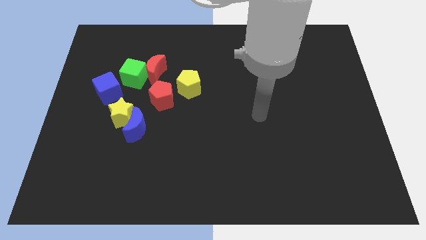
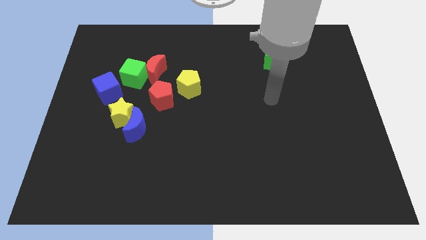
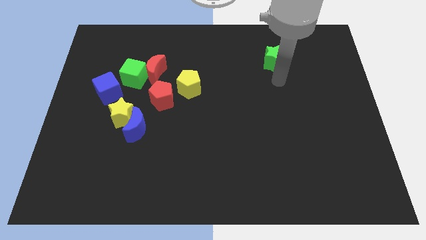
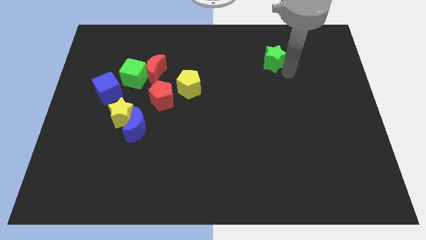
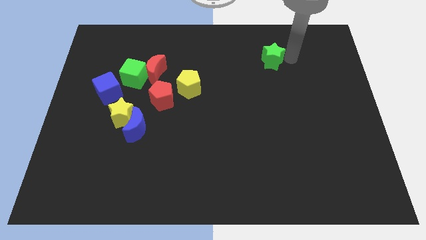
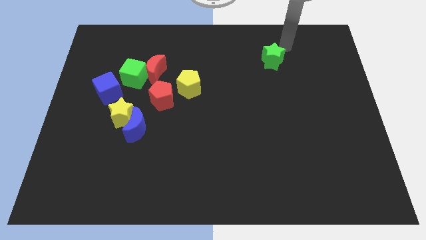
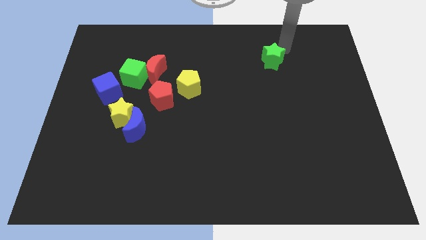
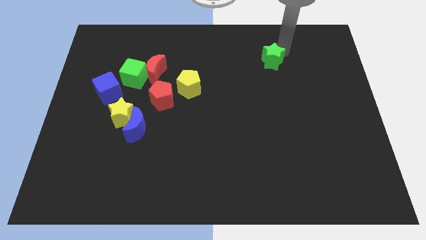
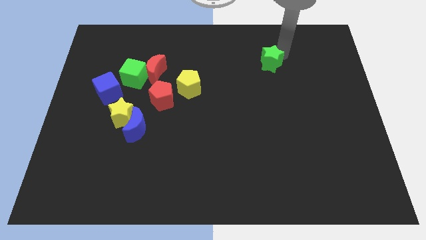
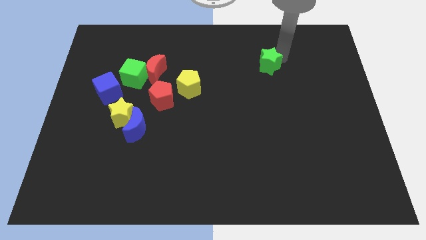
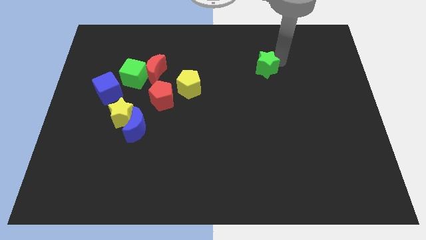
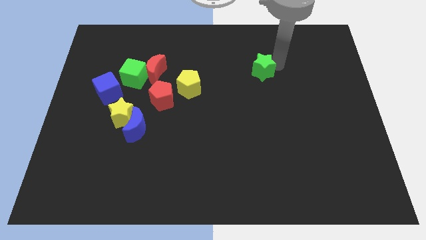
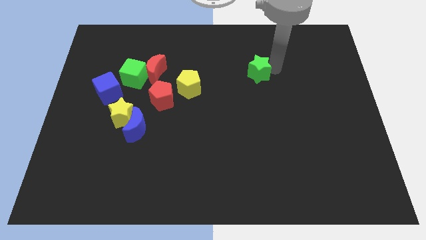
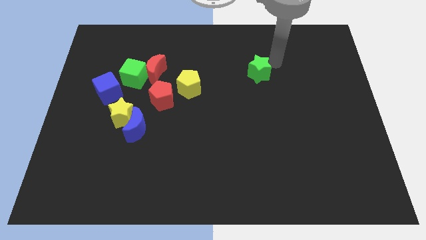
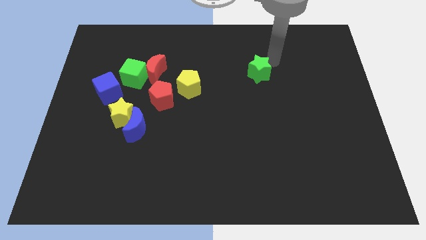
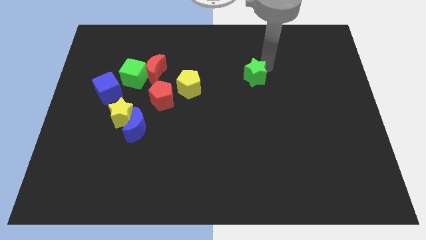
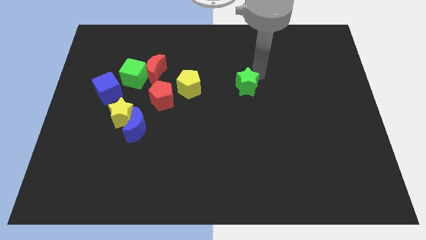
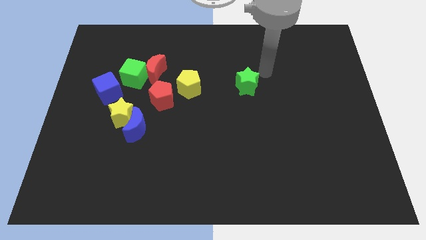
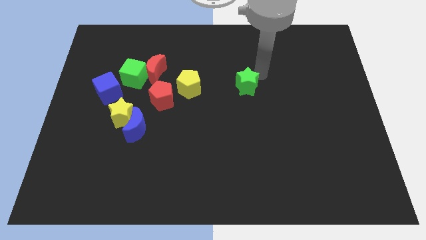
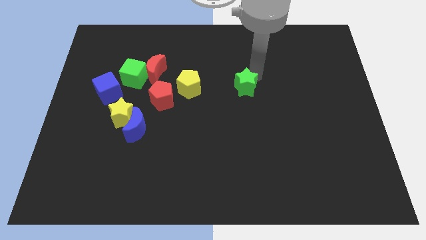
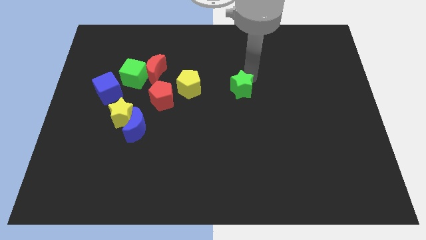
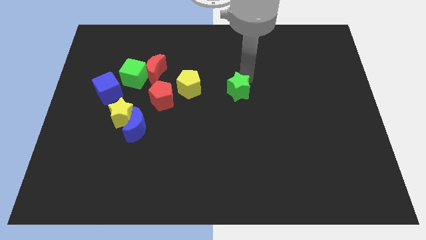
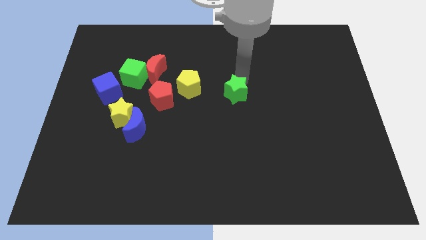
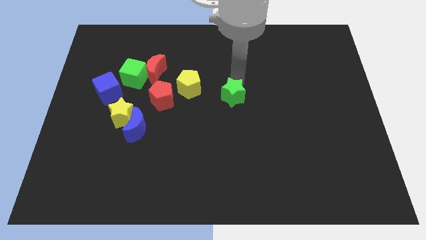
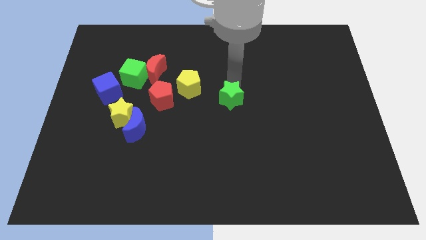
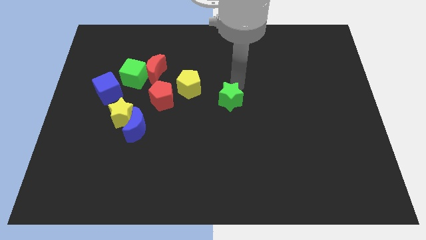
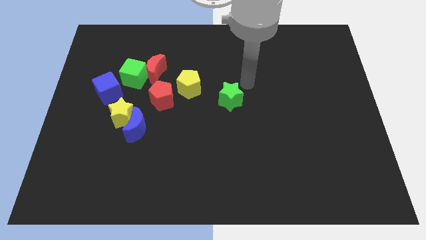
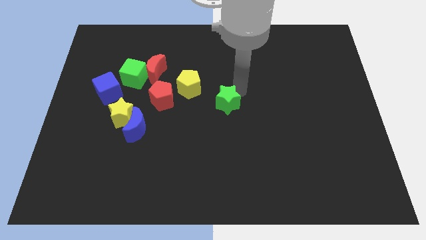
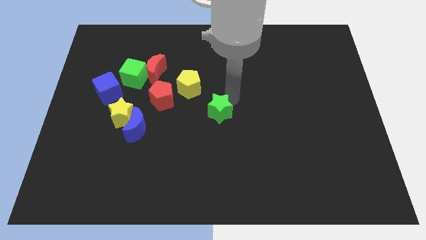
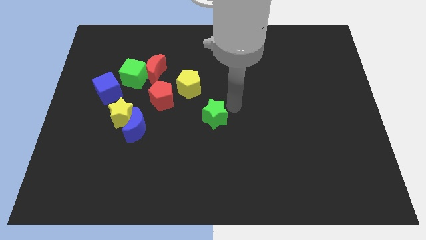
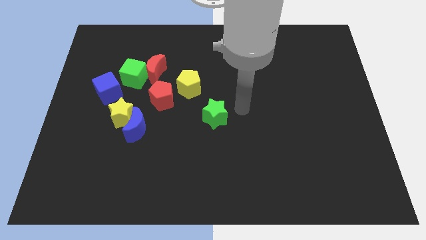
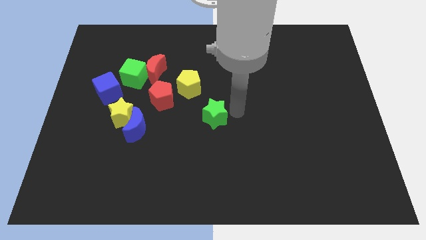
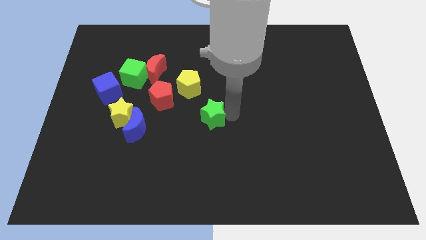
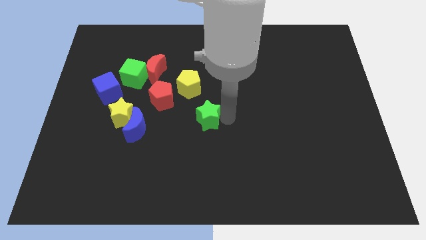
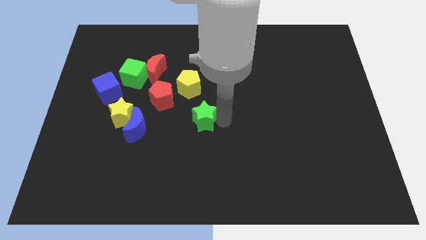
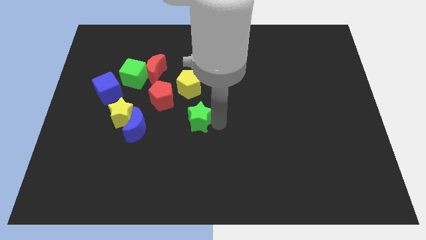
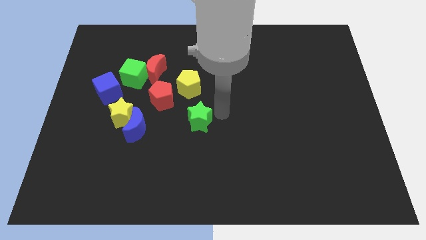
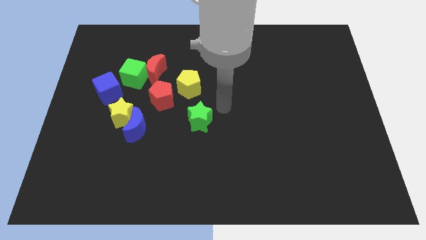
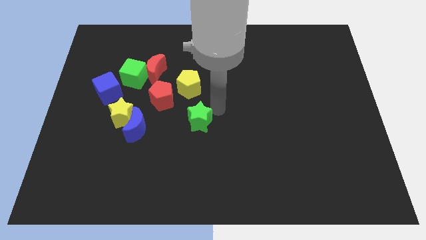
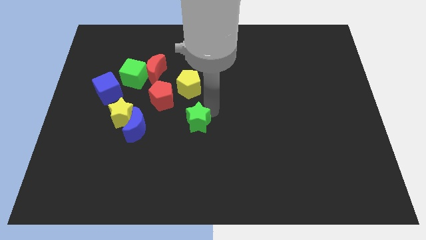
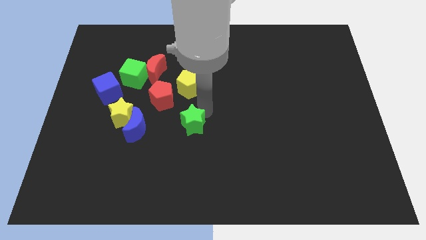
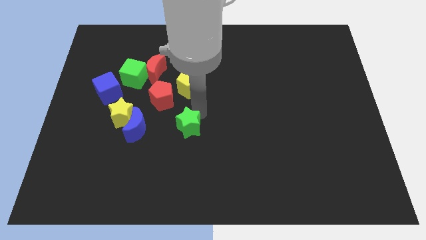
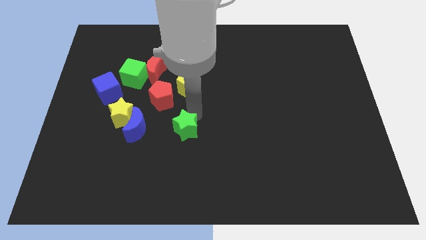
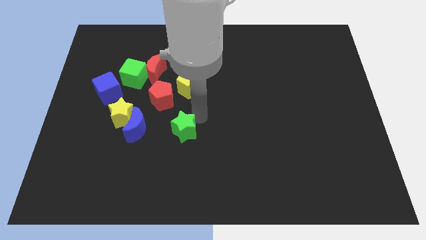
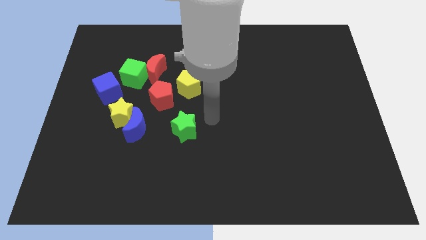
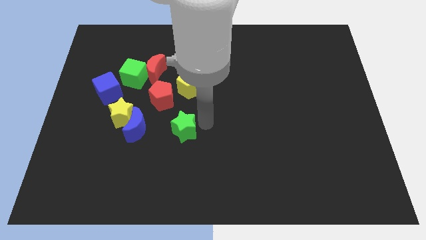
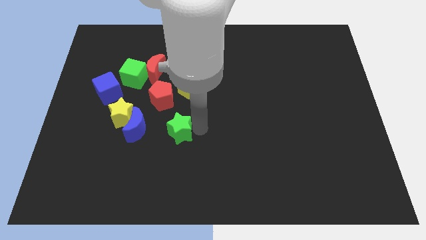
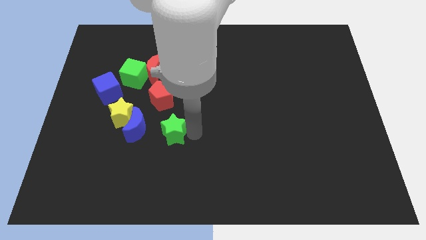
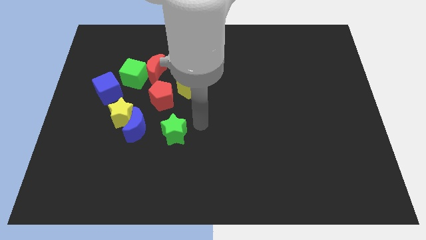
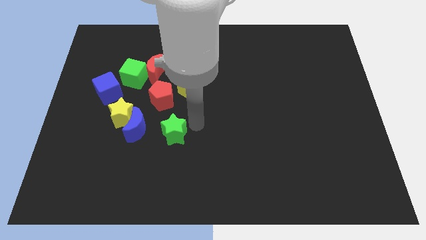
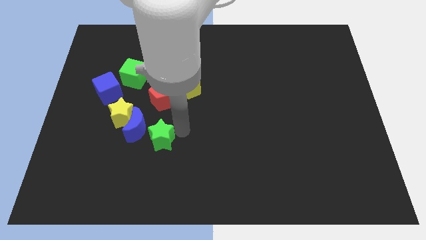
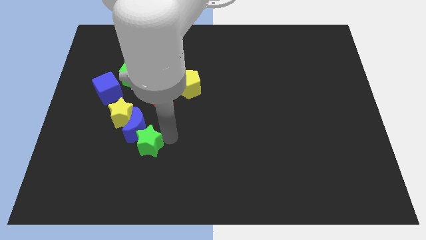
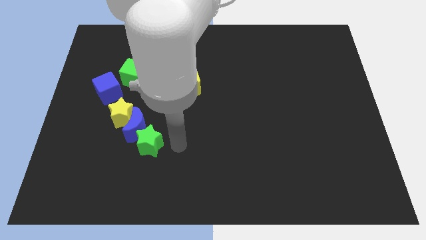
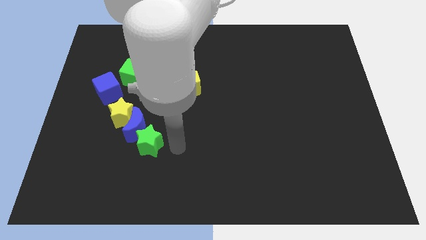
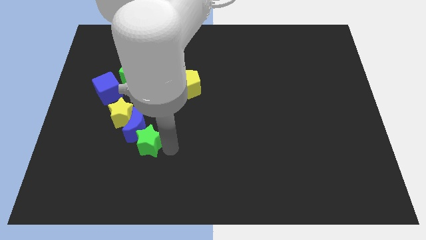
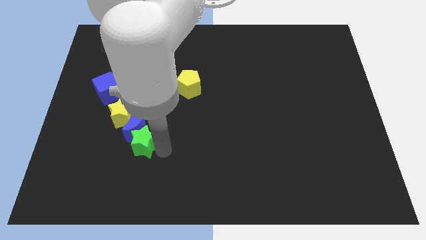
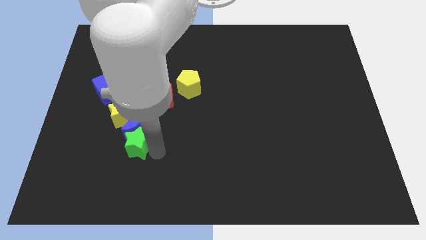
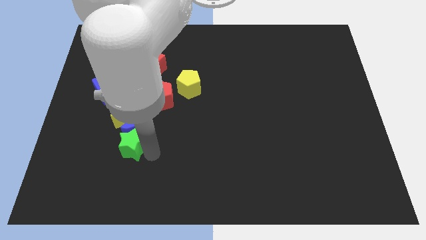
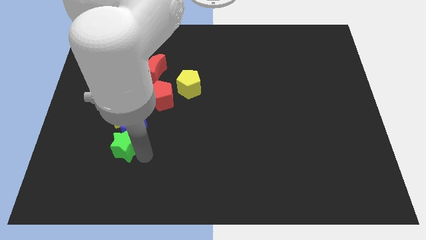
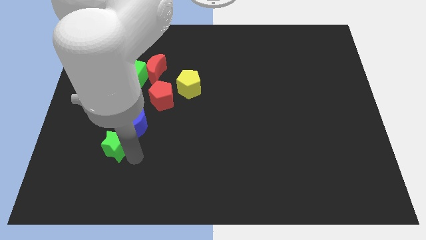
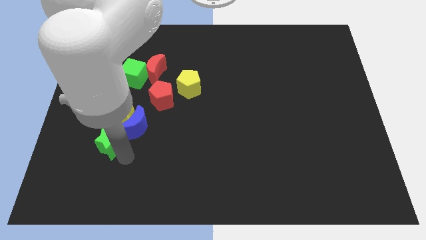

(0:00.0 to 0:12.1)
move the green star left of the blue moon
